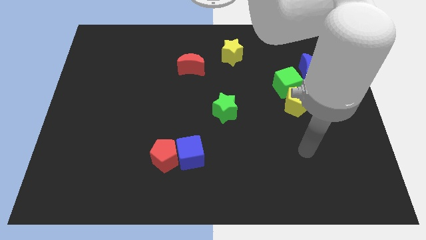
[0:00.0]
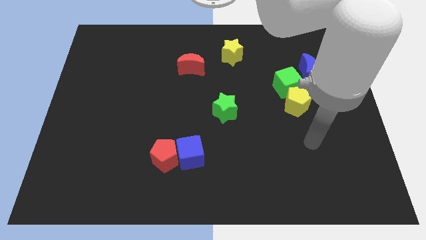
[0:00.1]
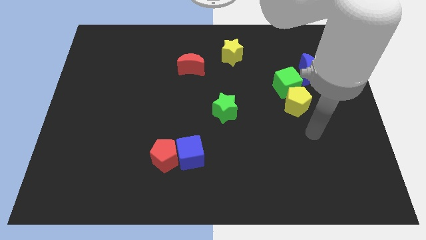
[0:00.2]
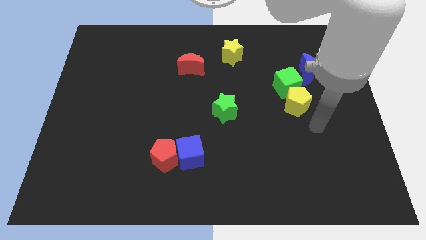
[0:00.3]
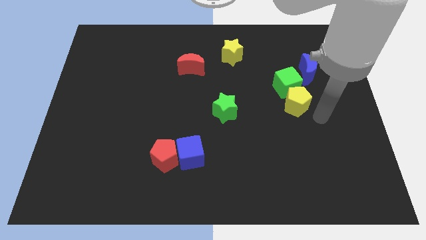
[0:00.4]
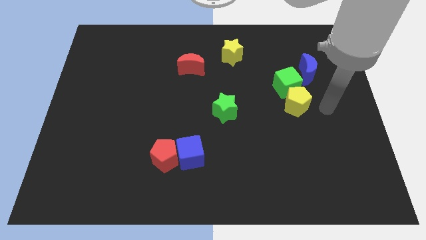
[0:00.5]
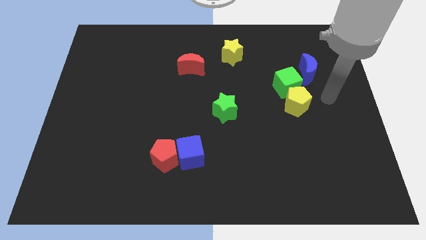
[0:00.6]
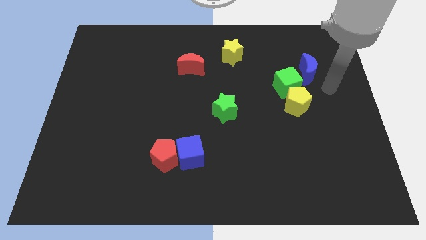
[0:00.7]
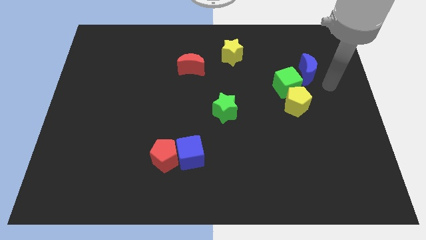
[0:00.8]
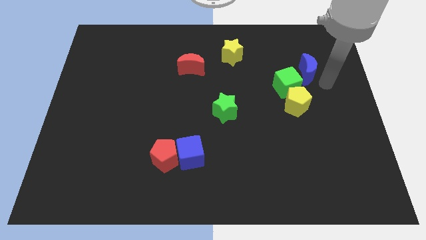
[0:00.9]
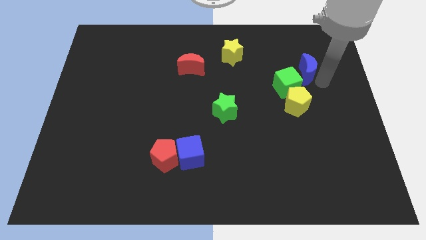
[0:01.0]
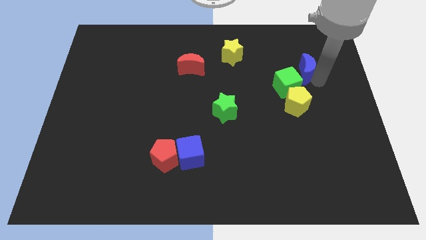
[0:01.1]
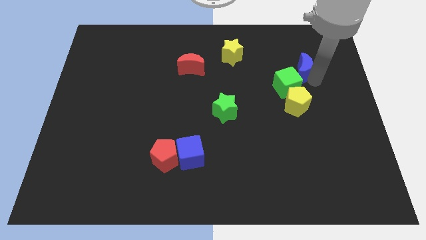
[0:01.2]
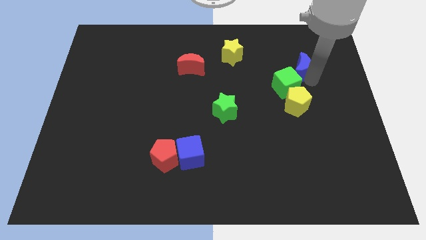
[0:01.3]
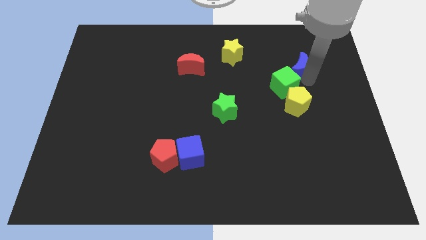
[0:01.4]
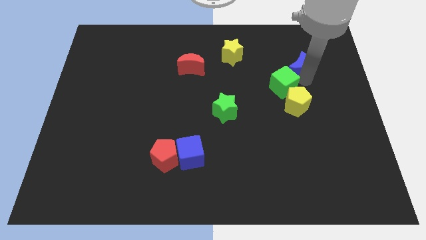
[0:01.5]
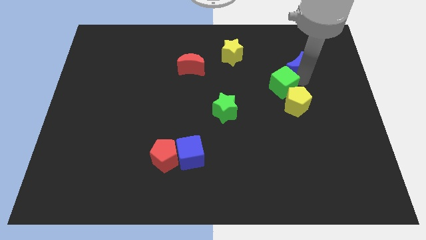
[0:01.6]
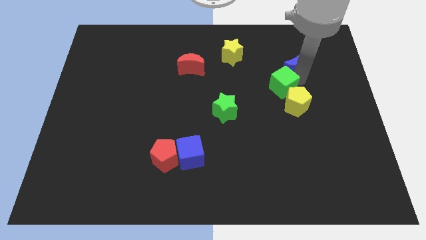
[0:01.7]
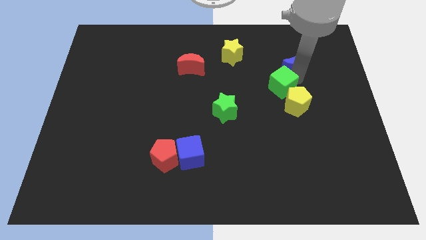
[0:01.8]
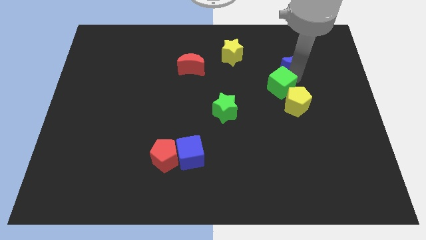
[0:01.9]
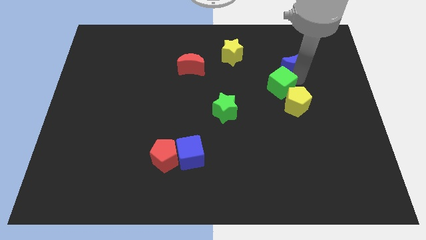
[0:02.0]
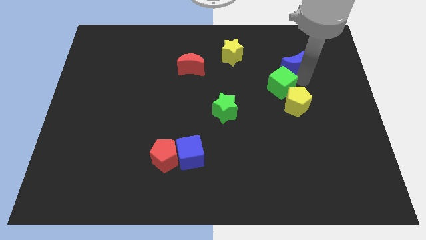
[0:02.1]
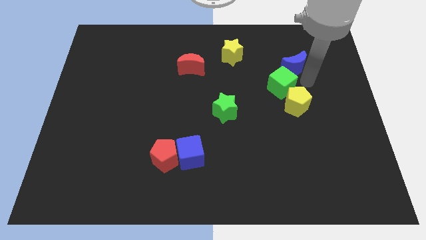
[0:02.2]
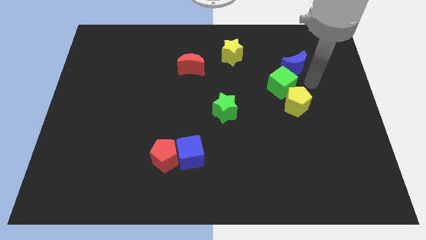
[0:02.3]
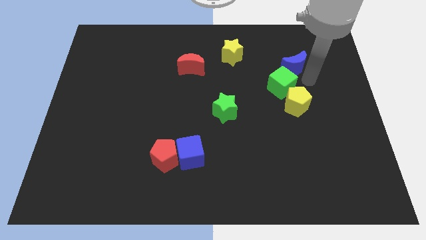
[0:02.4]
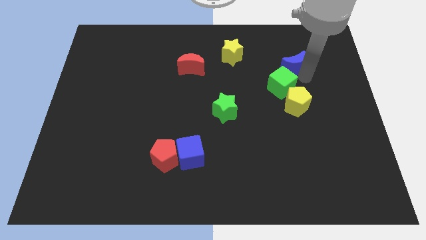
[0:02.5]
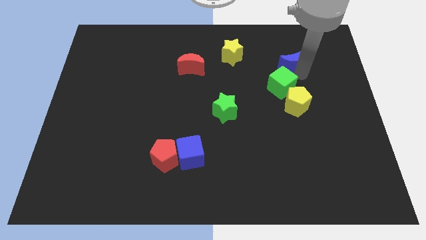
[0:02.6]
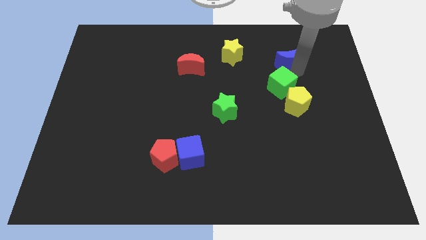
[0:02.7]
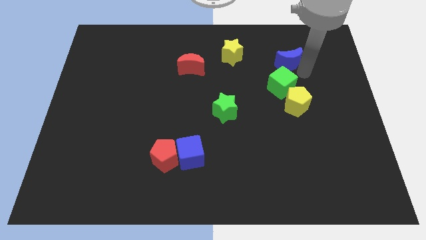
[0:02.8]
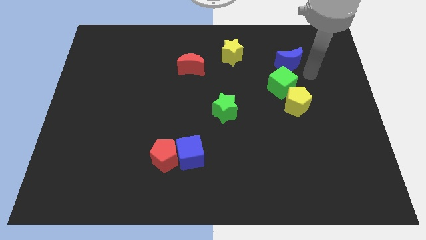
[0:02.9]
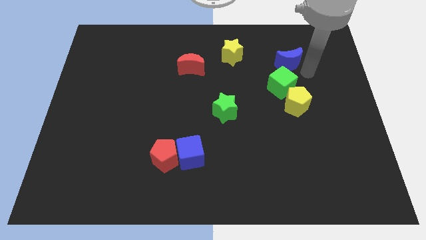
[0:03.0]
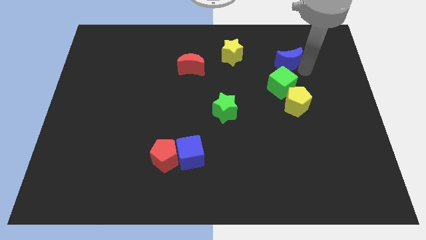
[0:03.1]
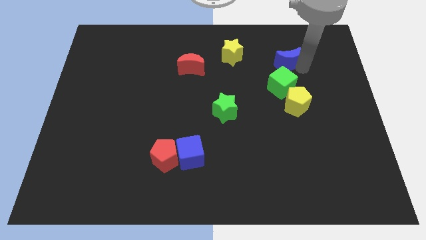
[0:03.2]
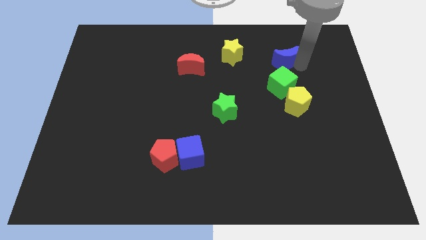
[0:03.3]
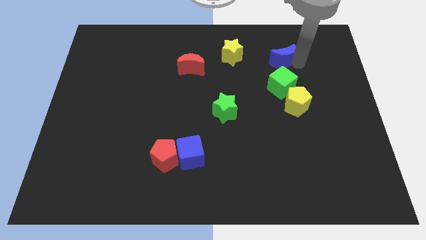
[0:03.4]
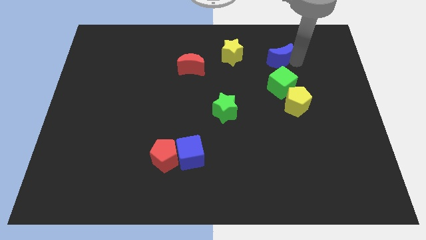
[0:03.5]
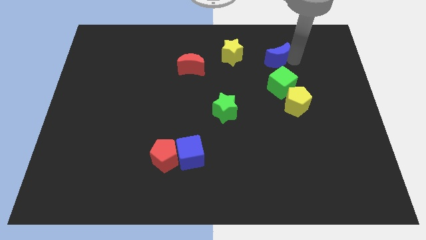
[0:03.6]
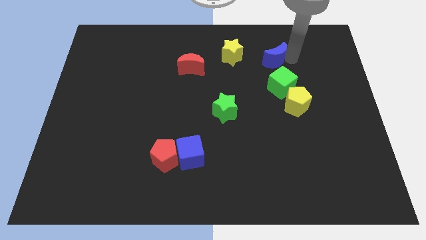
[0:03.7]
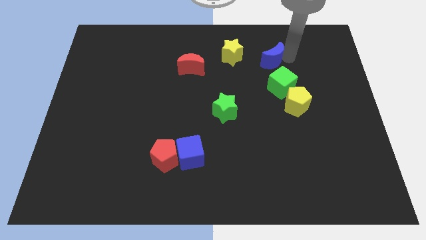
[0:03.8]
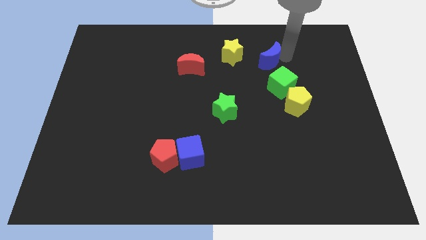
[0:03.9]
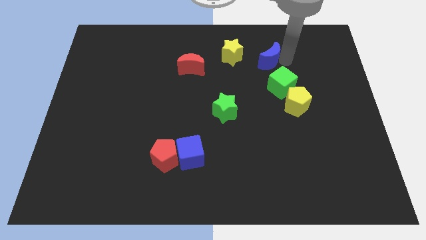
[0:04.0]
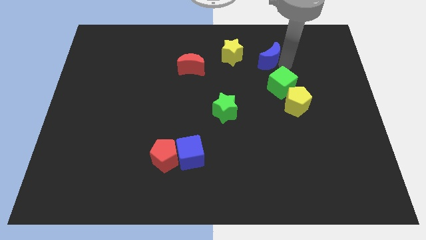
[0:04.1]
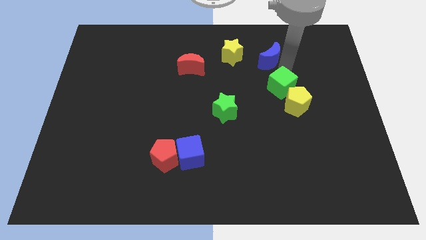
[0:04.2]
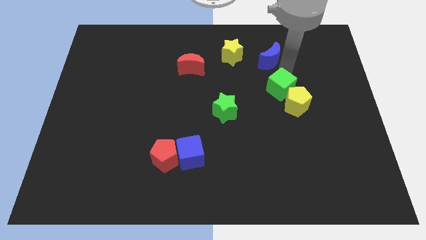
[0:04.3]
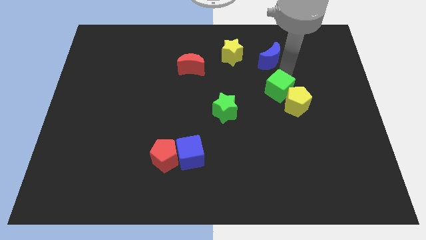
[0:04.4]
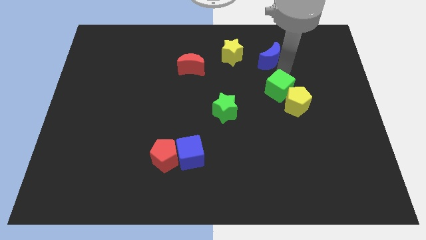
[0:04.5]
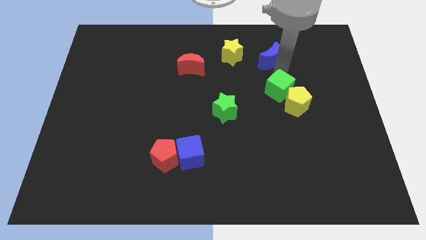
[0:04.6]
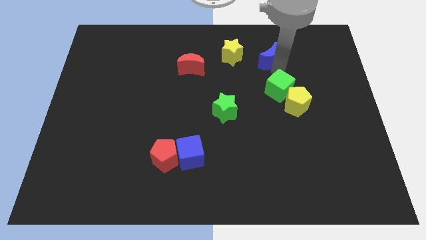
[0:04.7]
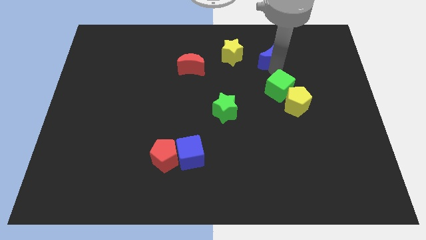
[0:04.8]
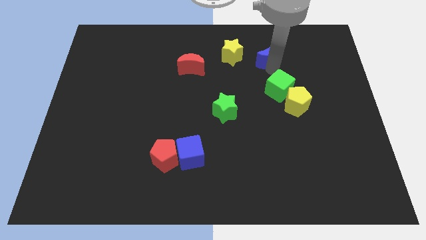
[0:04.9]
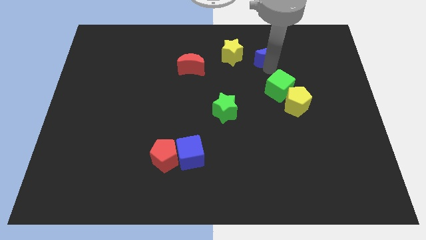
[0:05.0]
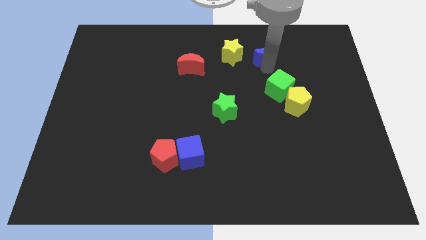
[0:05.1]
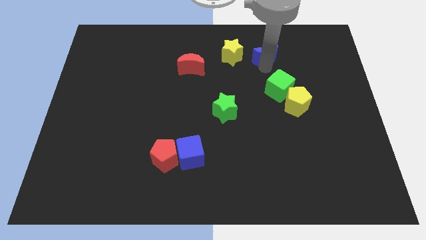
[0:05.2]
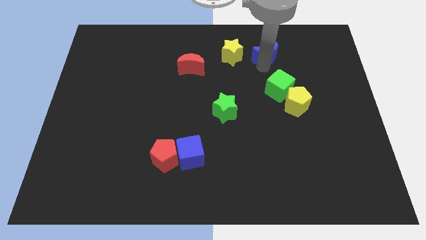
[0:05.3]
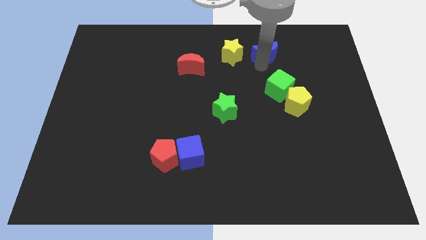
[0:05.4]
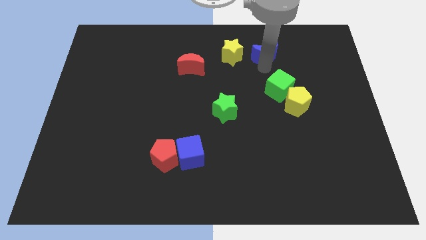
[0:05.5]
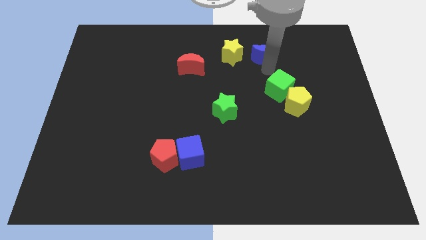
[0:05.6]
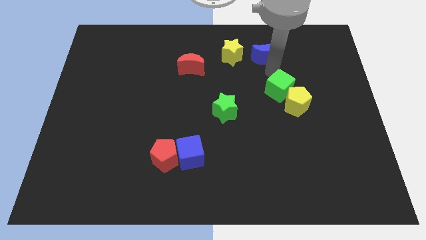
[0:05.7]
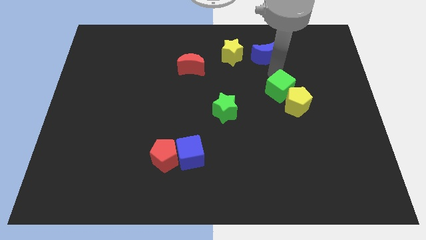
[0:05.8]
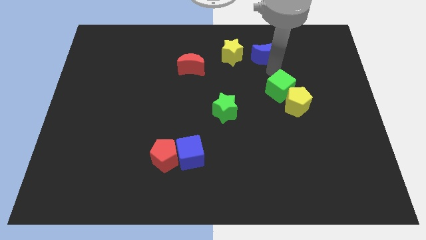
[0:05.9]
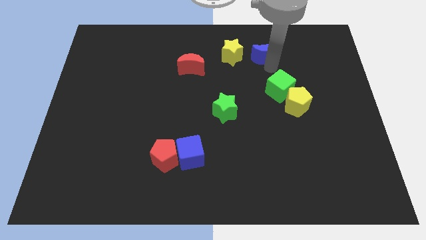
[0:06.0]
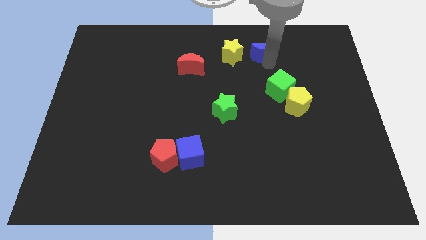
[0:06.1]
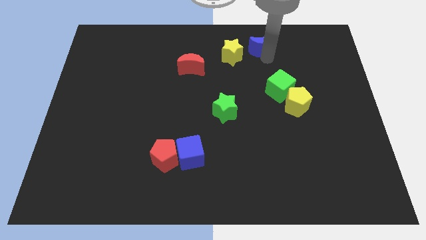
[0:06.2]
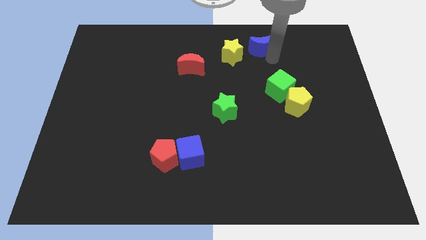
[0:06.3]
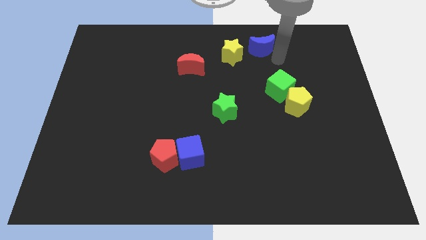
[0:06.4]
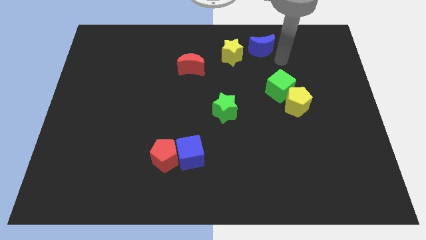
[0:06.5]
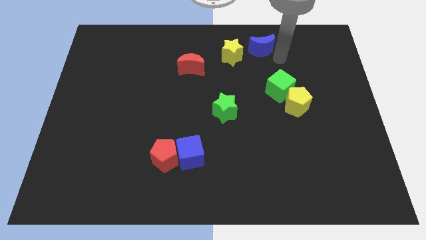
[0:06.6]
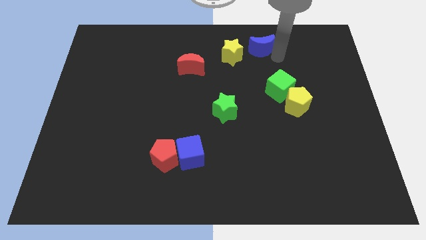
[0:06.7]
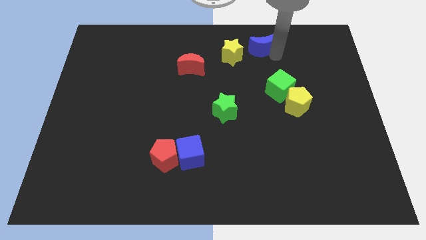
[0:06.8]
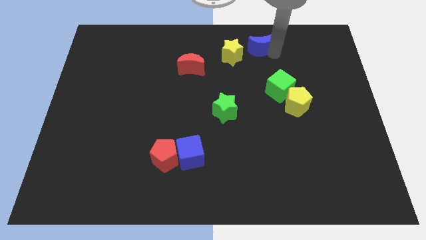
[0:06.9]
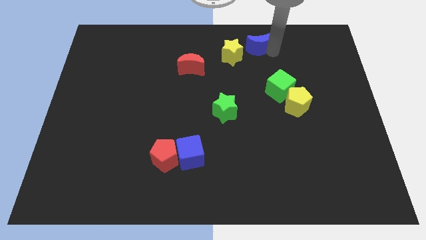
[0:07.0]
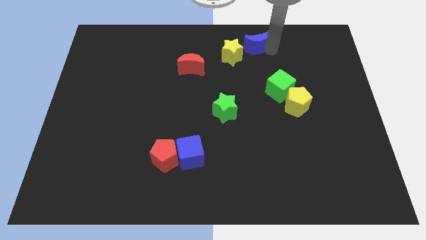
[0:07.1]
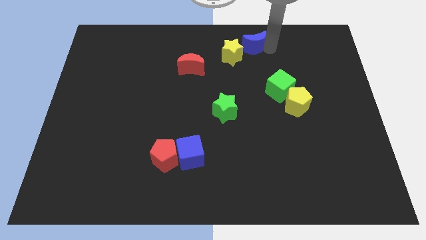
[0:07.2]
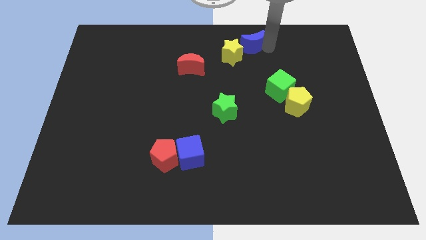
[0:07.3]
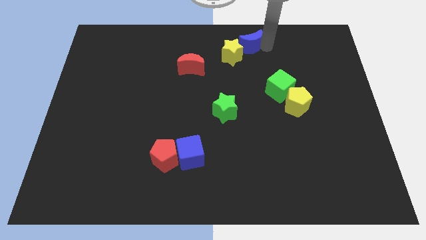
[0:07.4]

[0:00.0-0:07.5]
slide the blue moon to the towards your base

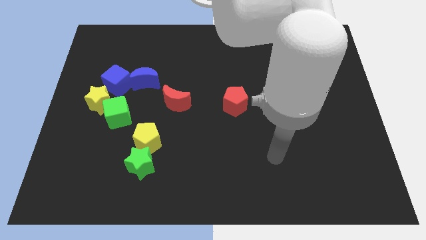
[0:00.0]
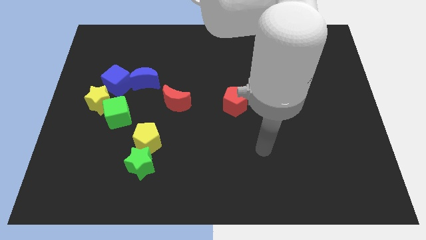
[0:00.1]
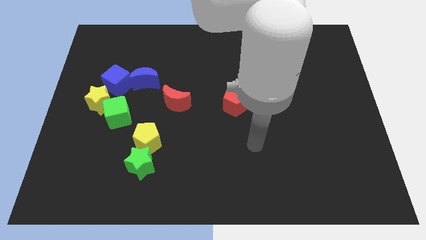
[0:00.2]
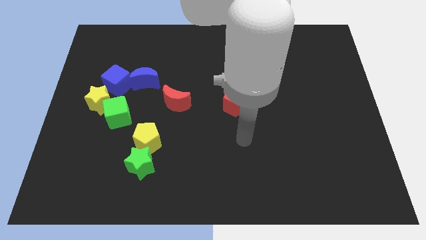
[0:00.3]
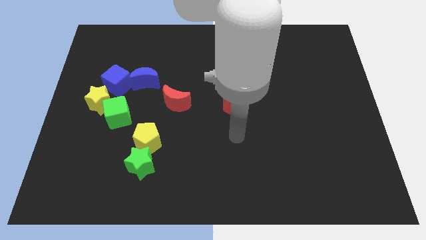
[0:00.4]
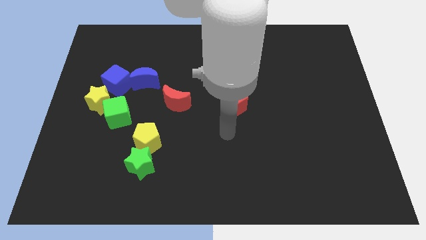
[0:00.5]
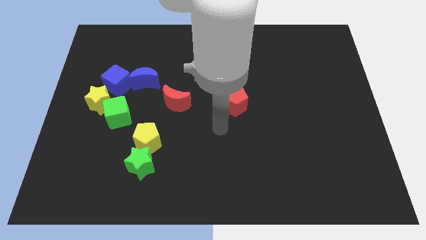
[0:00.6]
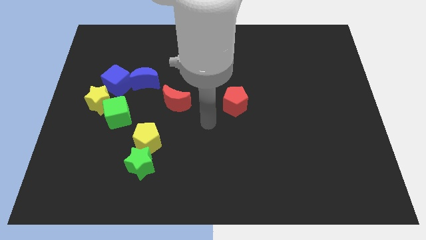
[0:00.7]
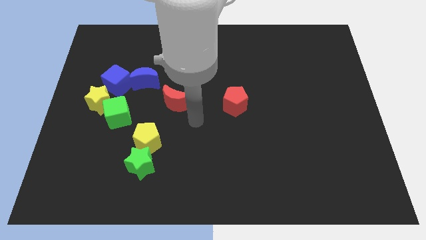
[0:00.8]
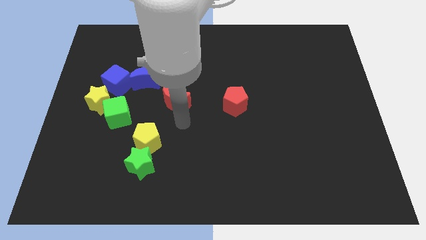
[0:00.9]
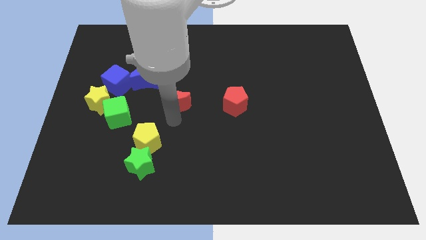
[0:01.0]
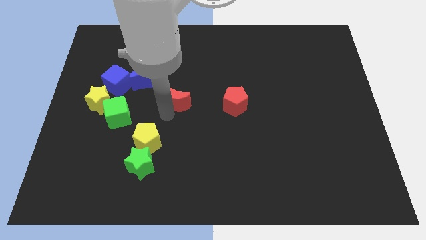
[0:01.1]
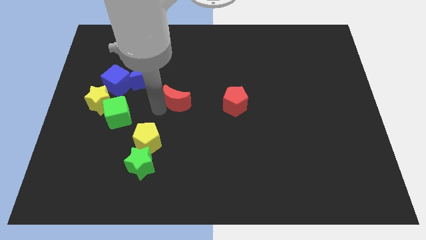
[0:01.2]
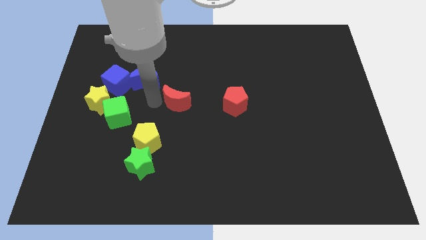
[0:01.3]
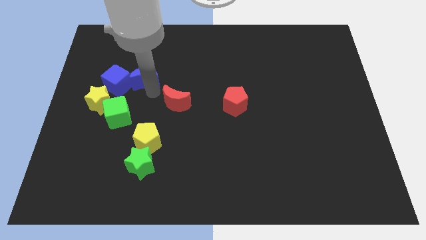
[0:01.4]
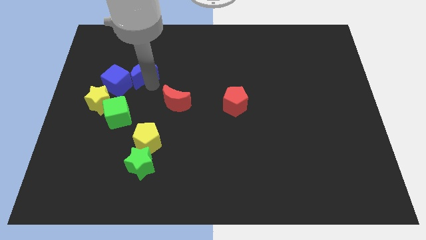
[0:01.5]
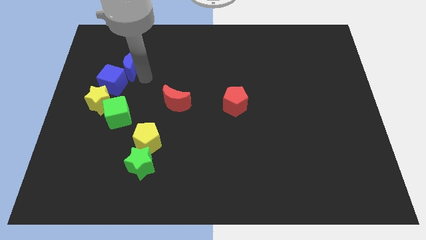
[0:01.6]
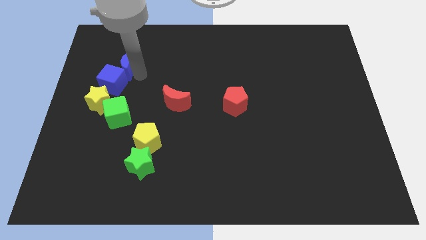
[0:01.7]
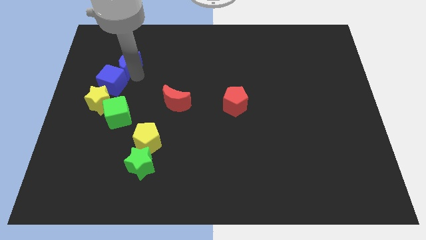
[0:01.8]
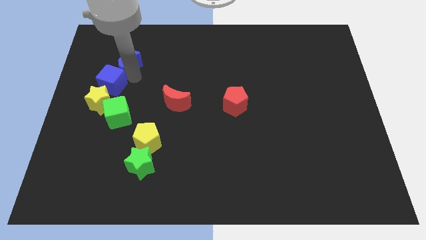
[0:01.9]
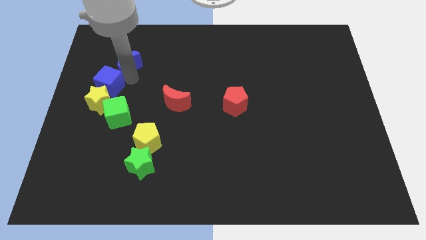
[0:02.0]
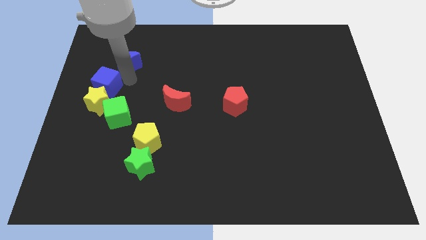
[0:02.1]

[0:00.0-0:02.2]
move the blue cube to the center left
